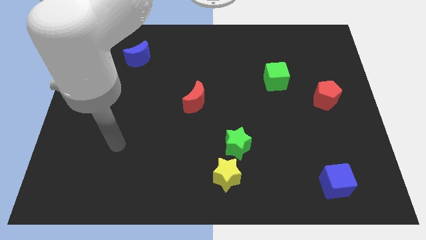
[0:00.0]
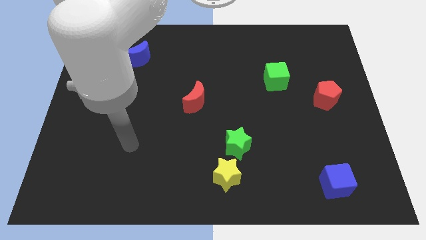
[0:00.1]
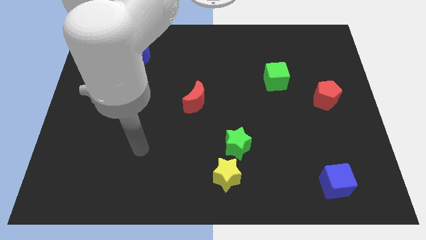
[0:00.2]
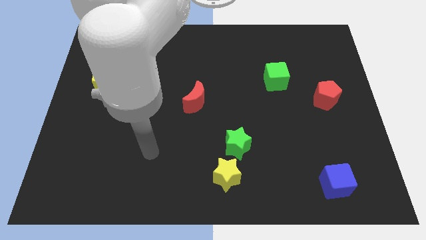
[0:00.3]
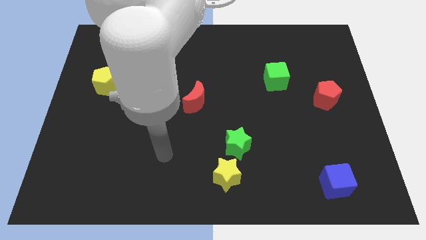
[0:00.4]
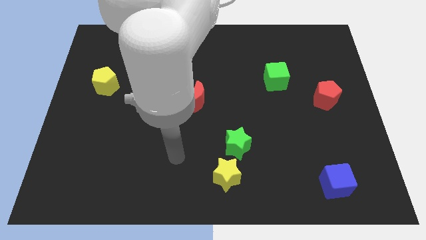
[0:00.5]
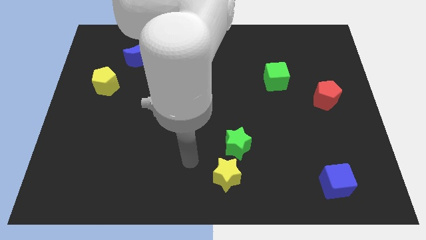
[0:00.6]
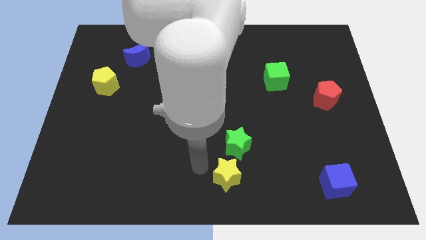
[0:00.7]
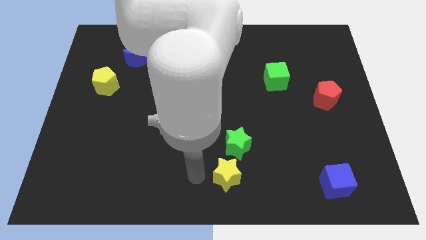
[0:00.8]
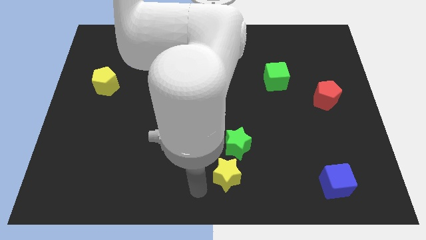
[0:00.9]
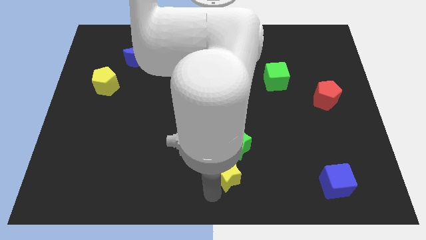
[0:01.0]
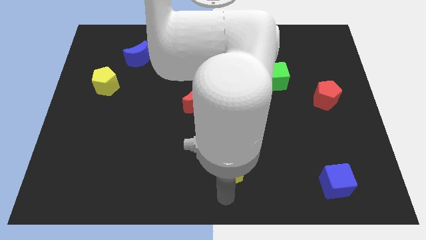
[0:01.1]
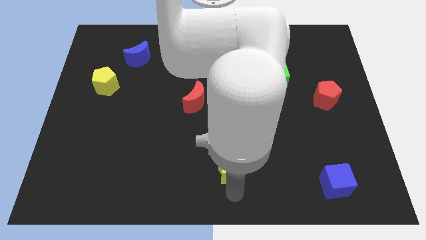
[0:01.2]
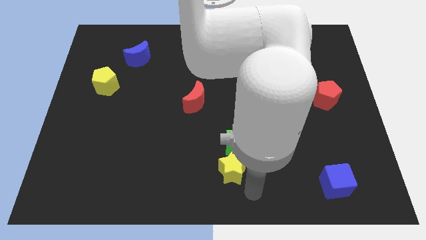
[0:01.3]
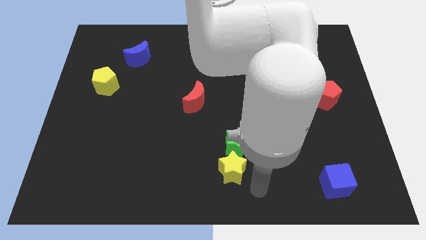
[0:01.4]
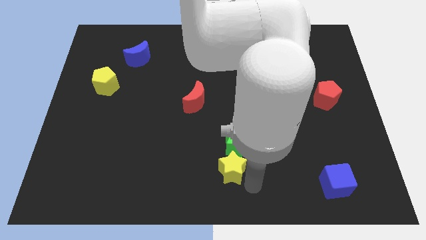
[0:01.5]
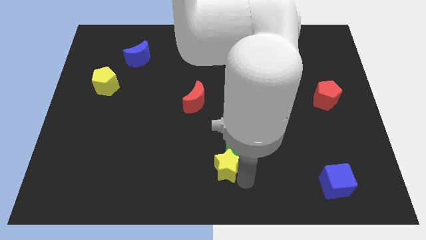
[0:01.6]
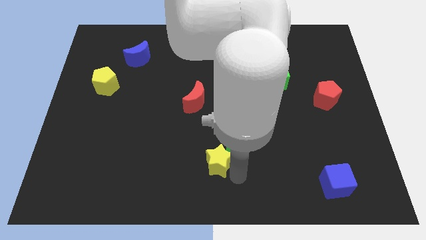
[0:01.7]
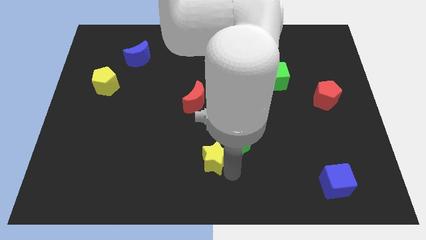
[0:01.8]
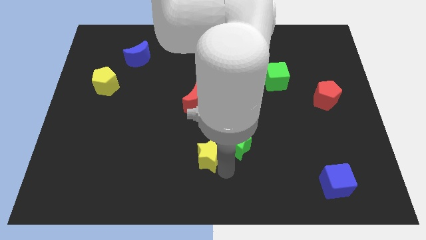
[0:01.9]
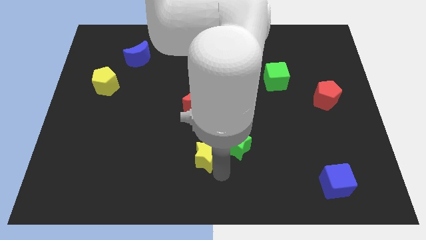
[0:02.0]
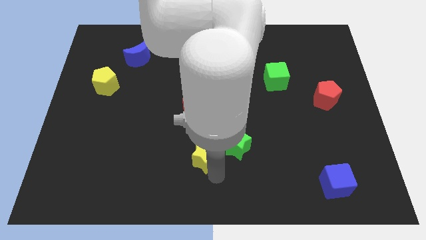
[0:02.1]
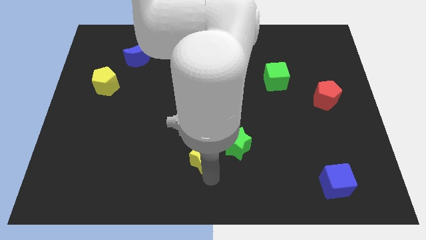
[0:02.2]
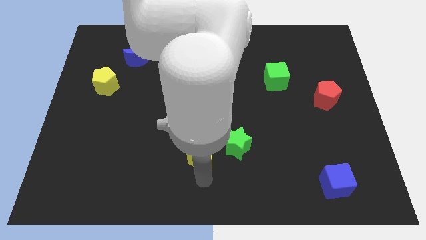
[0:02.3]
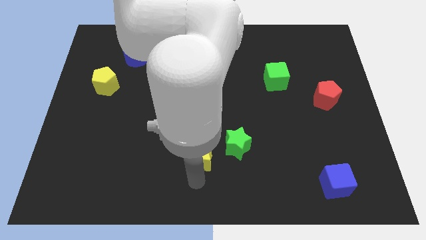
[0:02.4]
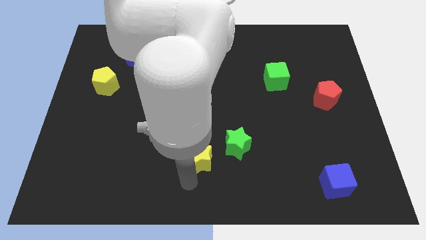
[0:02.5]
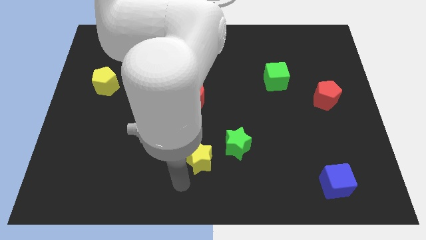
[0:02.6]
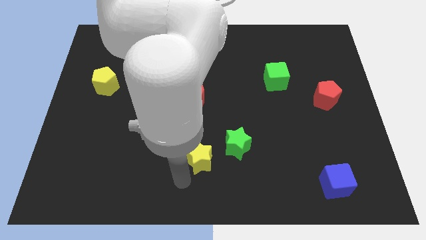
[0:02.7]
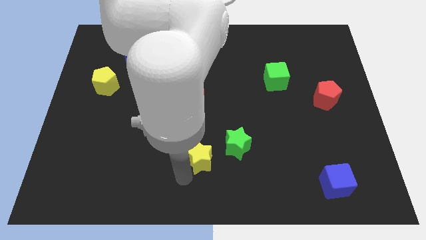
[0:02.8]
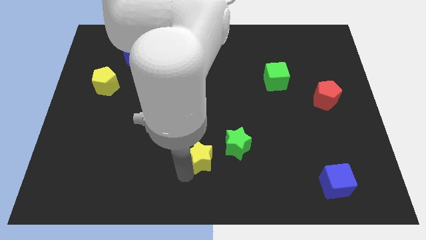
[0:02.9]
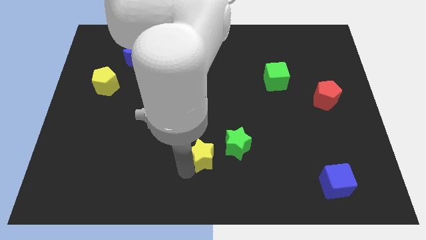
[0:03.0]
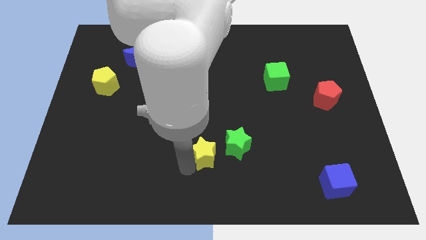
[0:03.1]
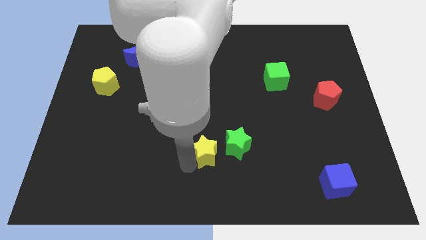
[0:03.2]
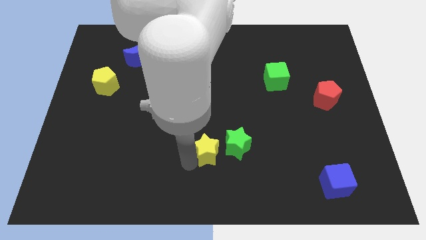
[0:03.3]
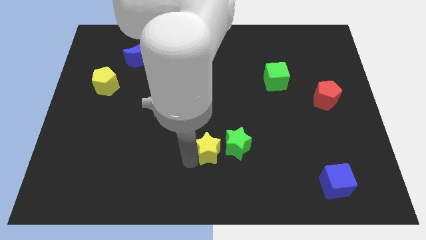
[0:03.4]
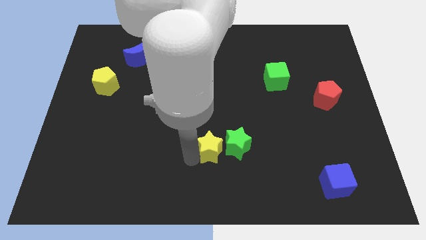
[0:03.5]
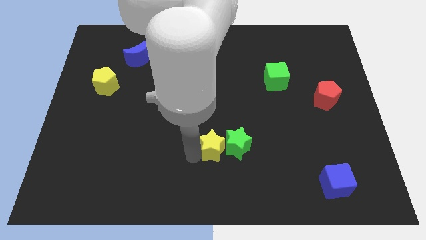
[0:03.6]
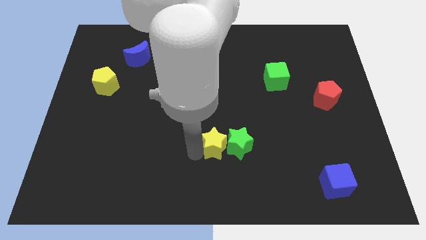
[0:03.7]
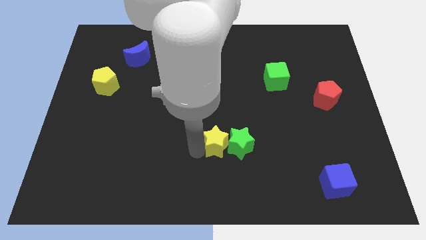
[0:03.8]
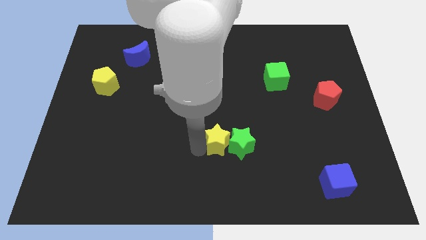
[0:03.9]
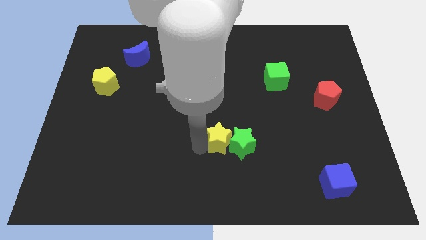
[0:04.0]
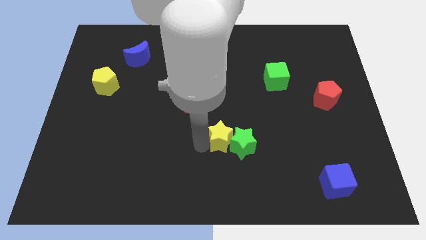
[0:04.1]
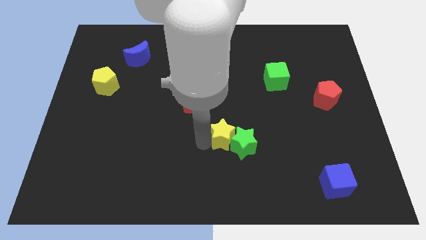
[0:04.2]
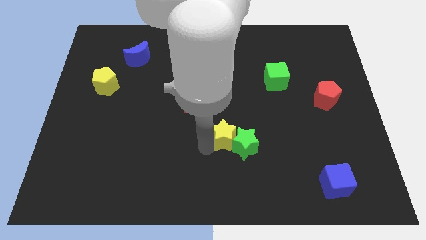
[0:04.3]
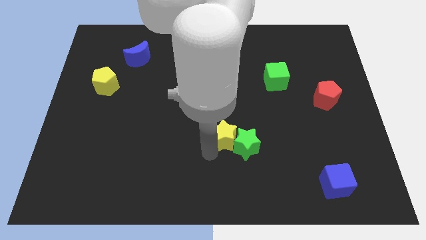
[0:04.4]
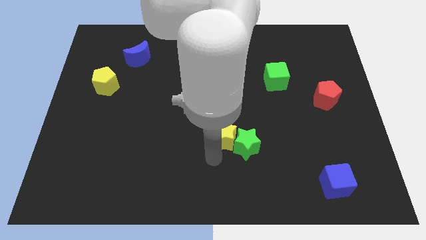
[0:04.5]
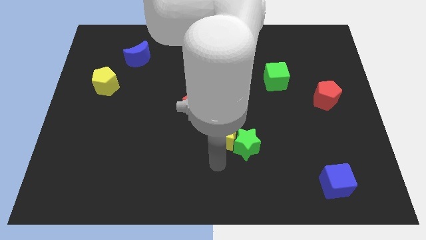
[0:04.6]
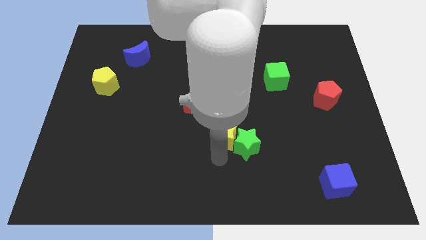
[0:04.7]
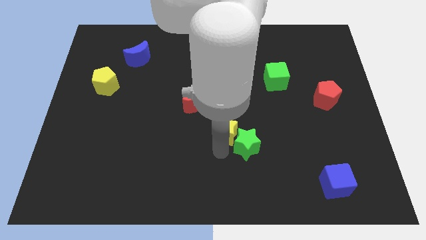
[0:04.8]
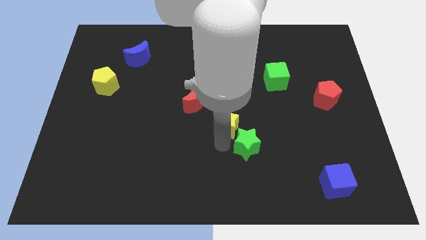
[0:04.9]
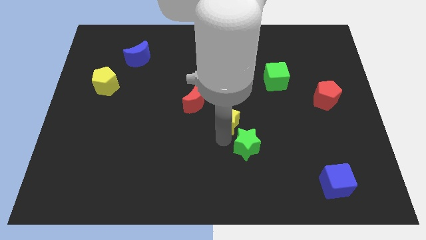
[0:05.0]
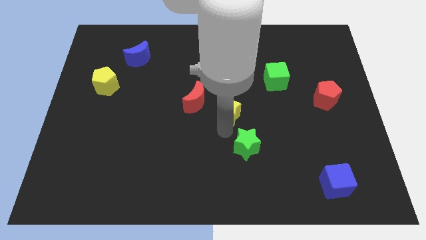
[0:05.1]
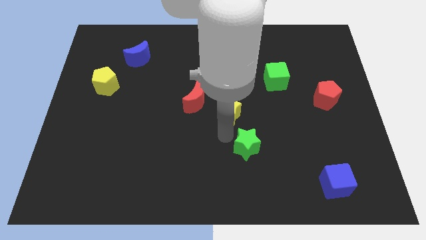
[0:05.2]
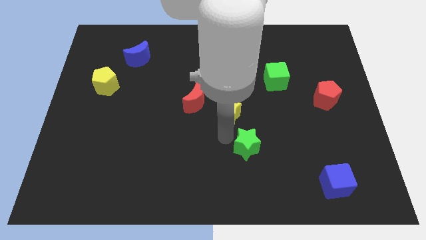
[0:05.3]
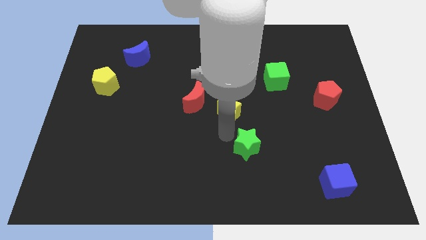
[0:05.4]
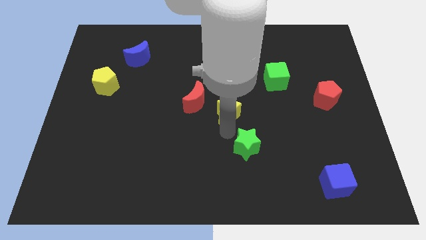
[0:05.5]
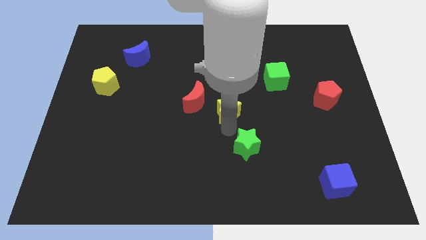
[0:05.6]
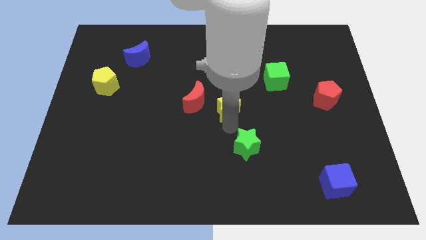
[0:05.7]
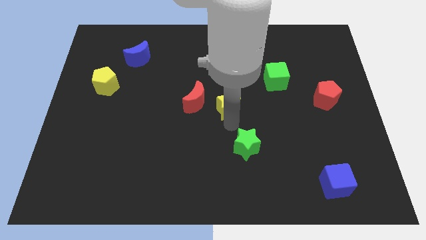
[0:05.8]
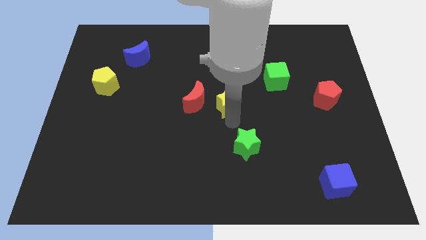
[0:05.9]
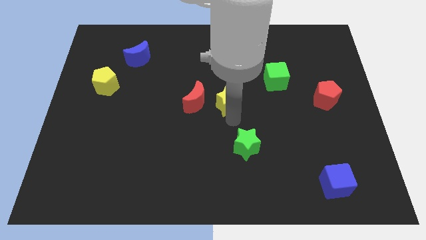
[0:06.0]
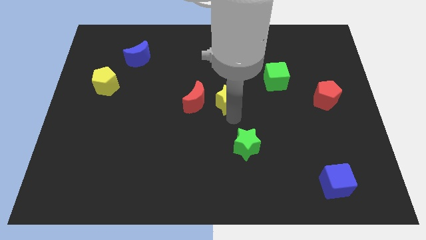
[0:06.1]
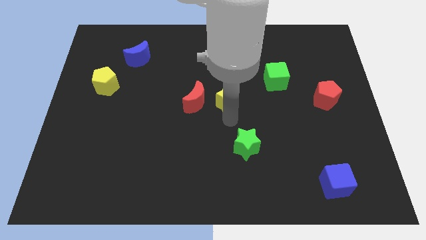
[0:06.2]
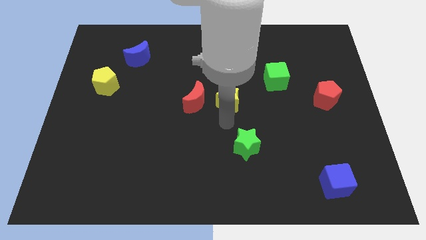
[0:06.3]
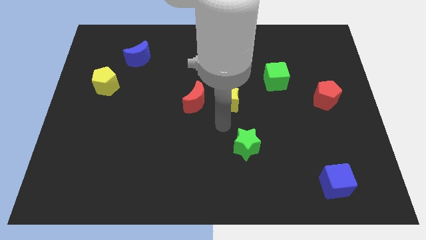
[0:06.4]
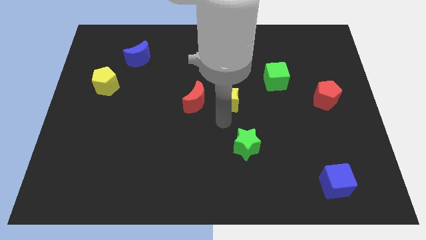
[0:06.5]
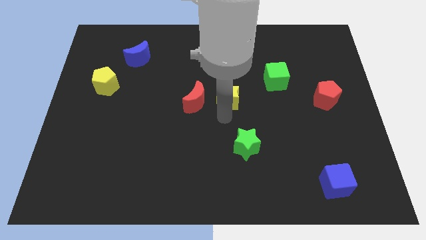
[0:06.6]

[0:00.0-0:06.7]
move the yellow star up

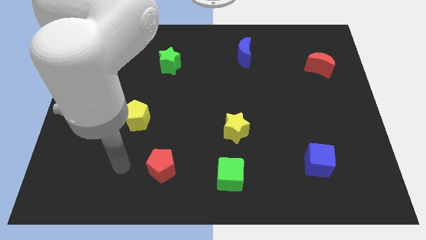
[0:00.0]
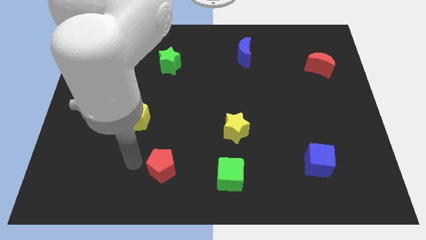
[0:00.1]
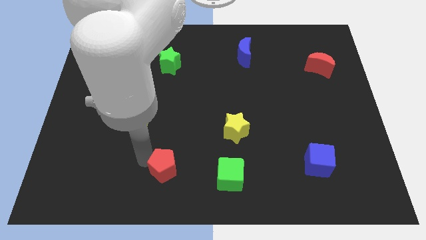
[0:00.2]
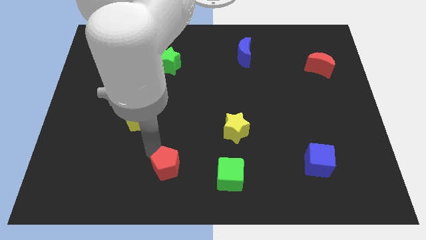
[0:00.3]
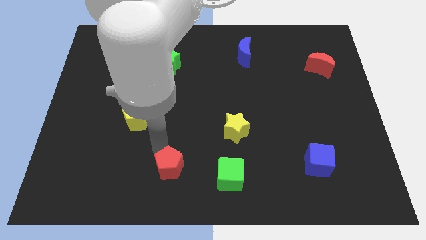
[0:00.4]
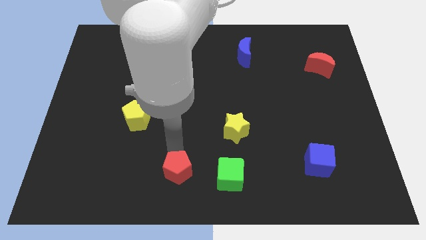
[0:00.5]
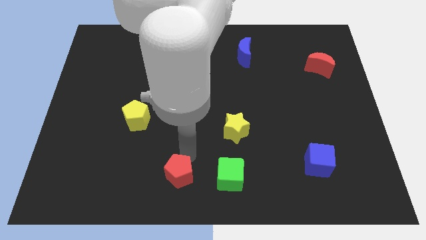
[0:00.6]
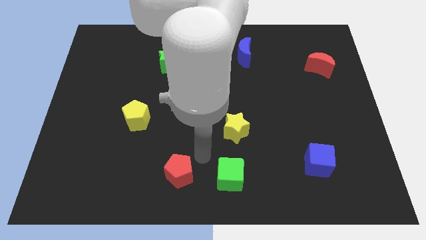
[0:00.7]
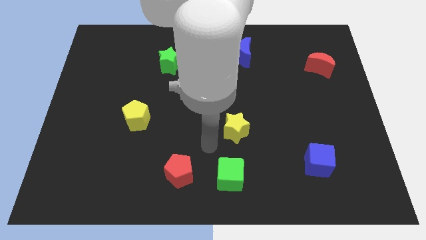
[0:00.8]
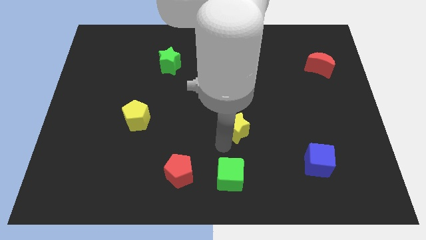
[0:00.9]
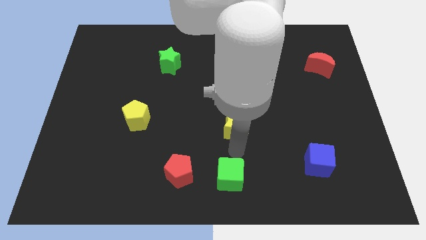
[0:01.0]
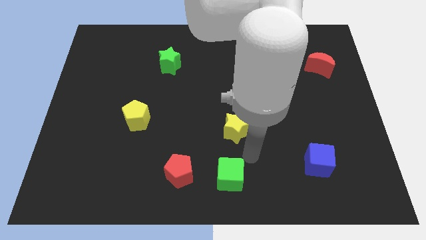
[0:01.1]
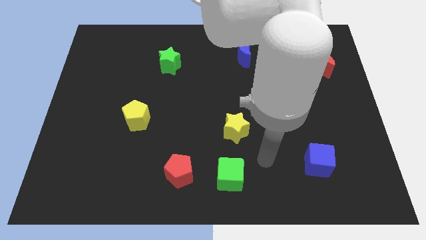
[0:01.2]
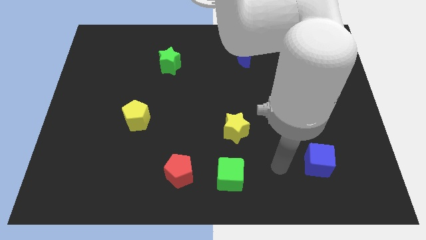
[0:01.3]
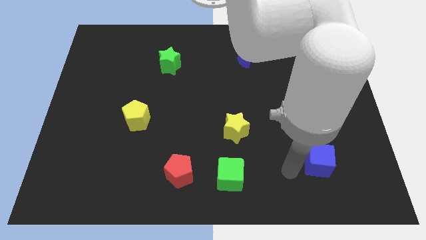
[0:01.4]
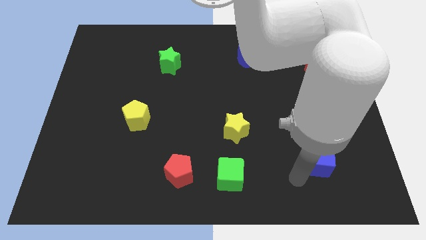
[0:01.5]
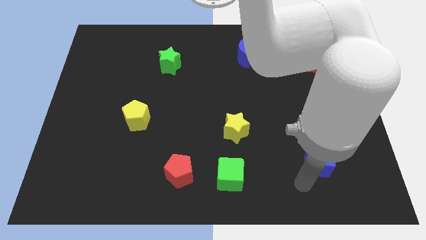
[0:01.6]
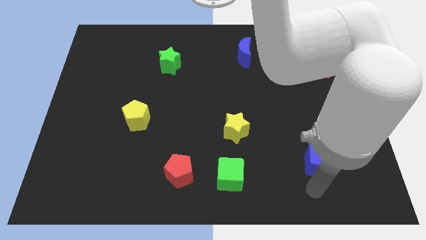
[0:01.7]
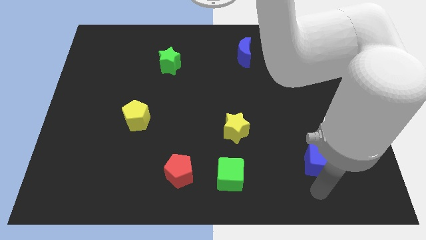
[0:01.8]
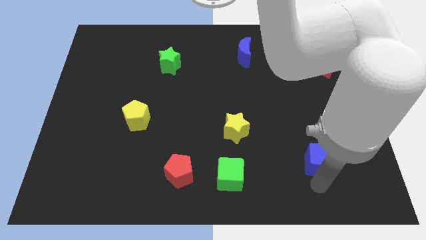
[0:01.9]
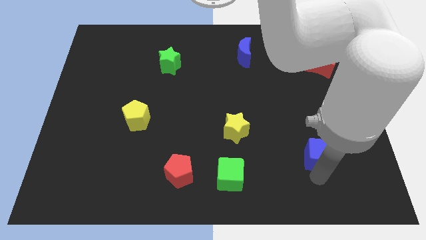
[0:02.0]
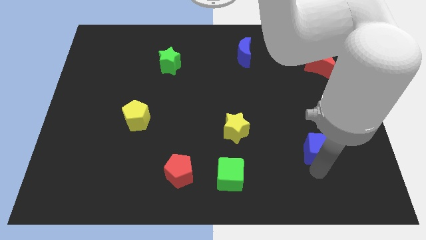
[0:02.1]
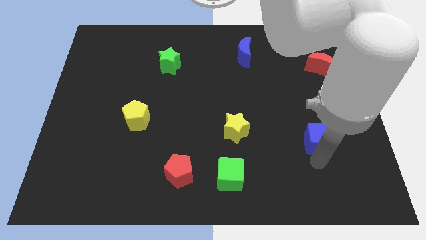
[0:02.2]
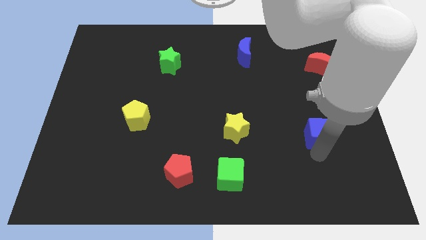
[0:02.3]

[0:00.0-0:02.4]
slightly push the blue cube up
